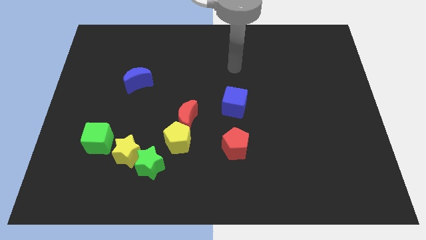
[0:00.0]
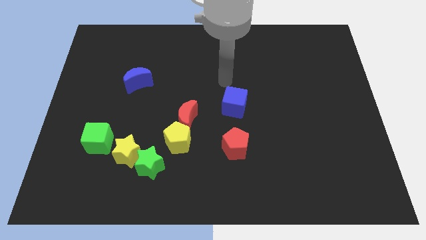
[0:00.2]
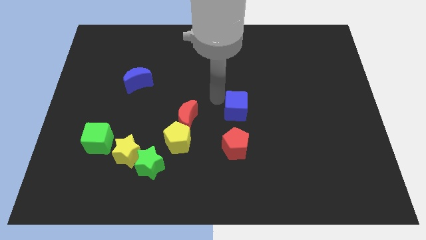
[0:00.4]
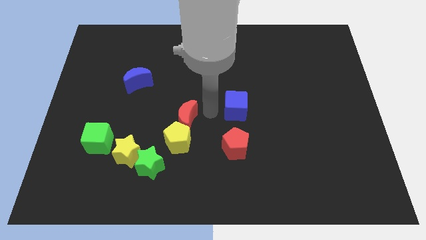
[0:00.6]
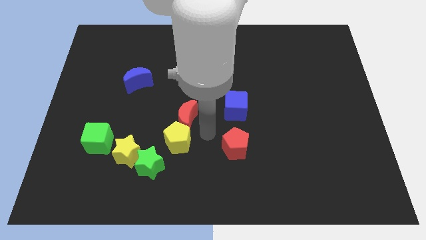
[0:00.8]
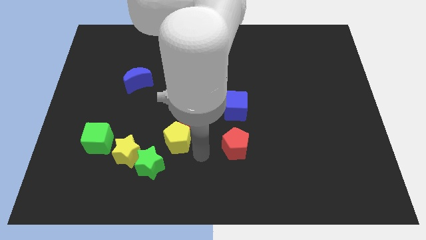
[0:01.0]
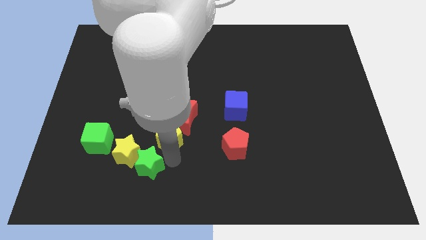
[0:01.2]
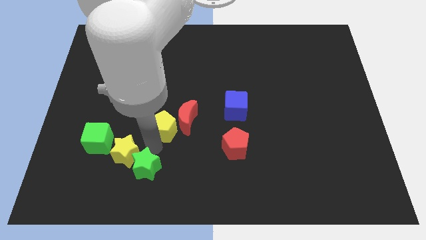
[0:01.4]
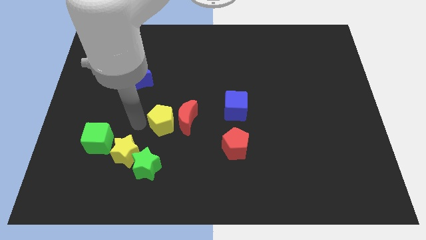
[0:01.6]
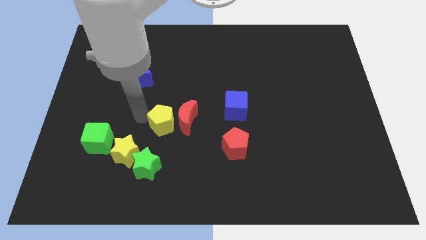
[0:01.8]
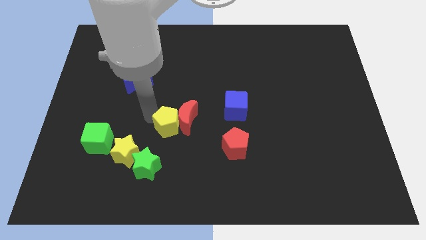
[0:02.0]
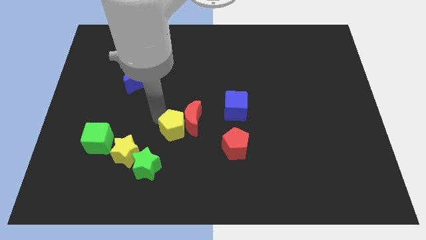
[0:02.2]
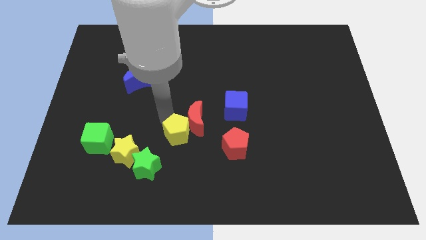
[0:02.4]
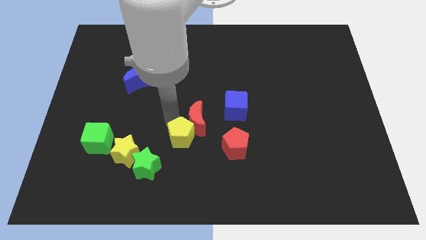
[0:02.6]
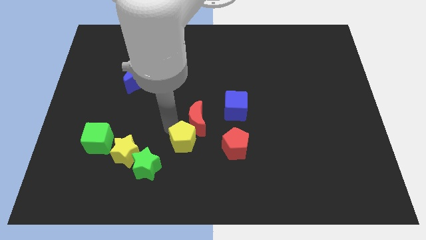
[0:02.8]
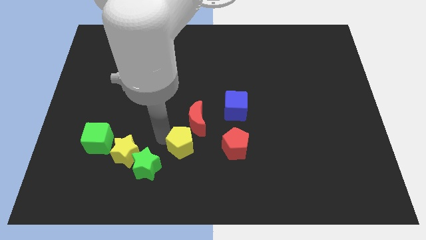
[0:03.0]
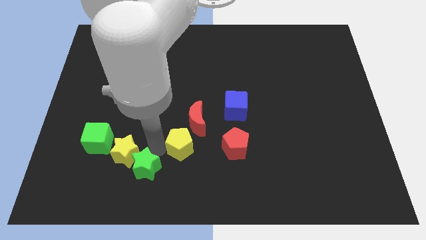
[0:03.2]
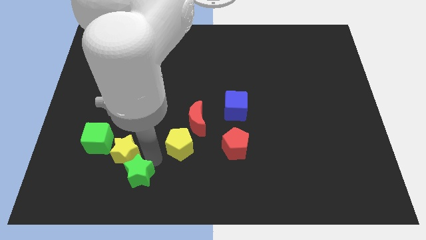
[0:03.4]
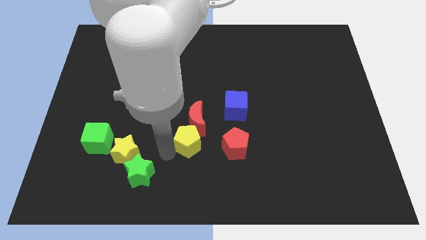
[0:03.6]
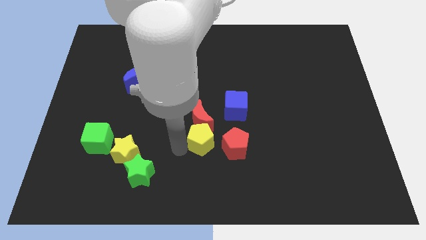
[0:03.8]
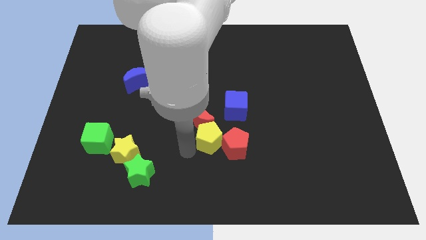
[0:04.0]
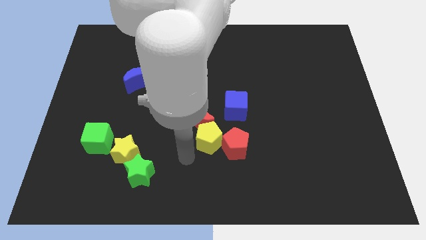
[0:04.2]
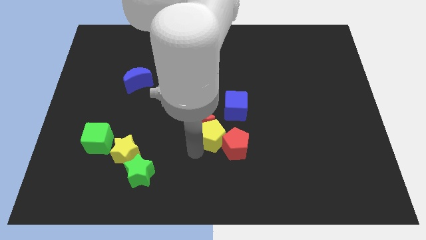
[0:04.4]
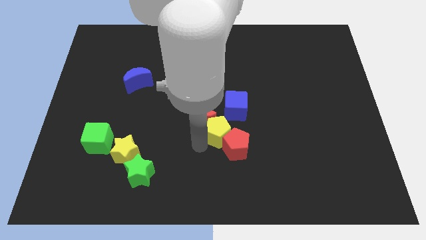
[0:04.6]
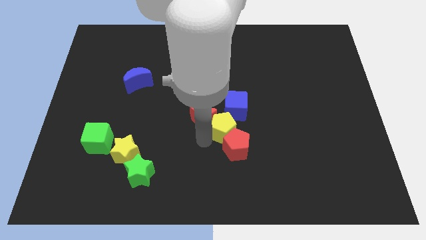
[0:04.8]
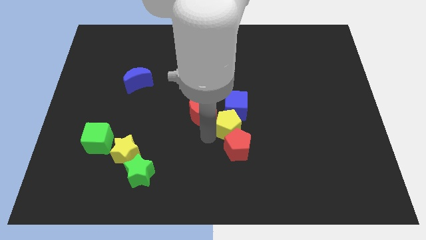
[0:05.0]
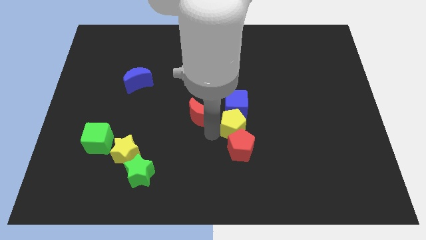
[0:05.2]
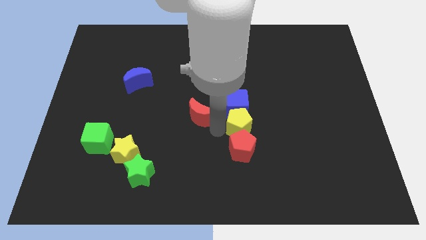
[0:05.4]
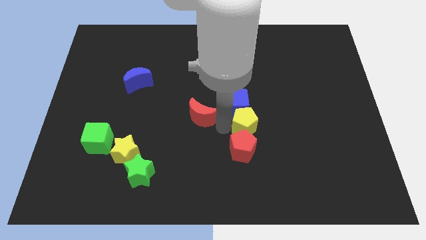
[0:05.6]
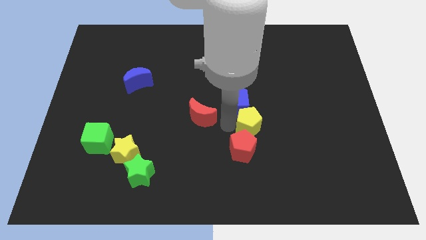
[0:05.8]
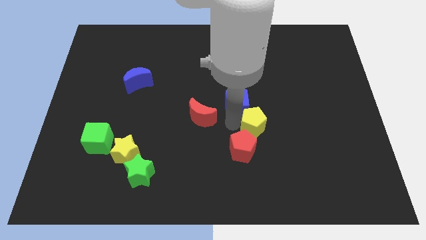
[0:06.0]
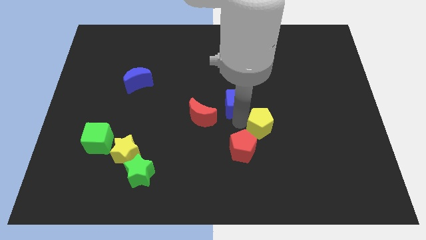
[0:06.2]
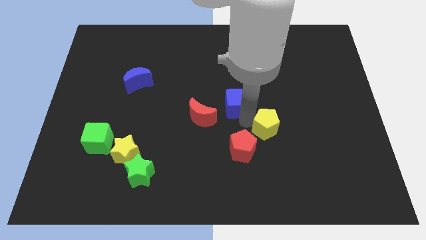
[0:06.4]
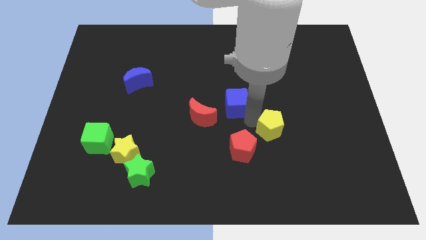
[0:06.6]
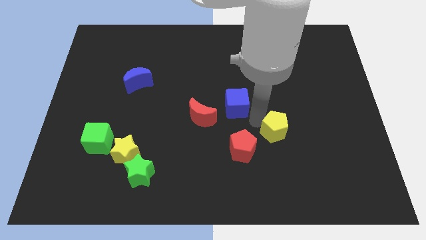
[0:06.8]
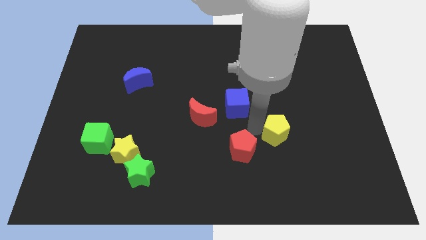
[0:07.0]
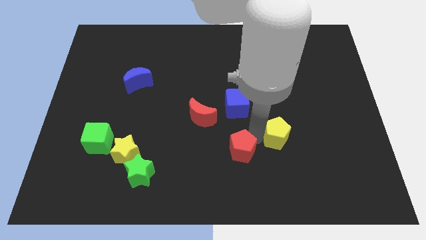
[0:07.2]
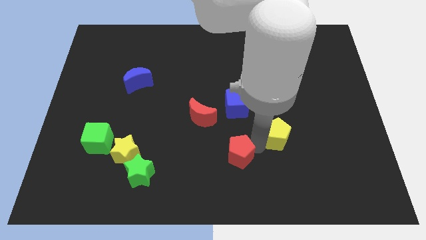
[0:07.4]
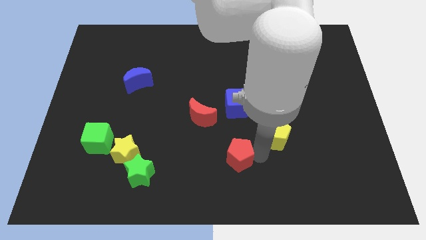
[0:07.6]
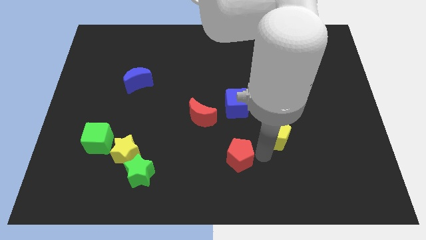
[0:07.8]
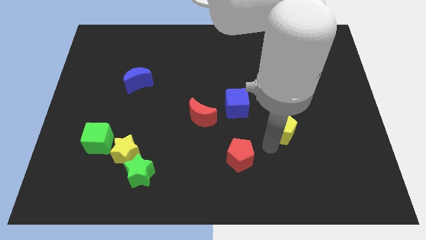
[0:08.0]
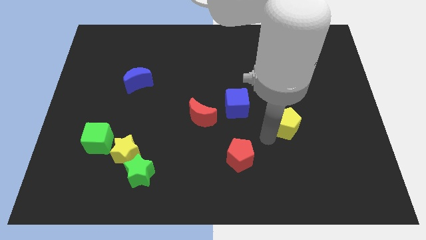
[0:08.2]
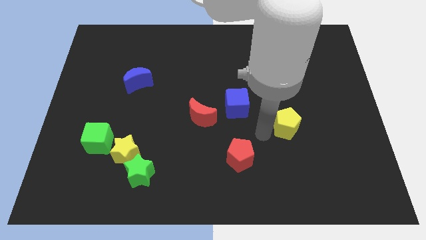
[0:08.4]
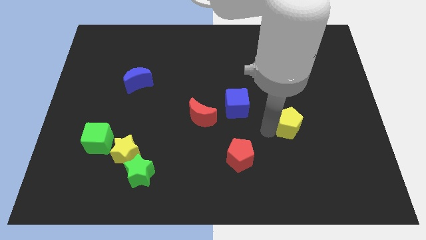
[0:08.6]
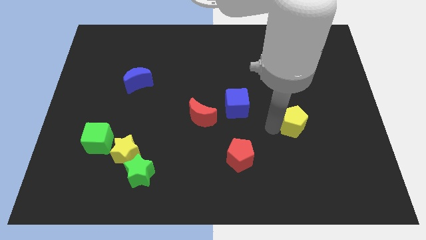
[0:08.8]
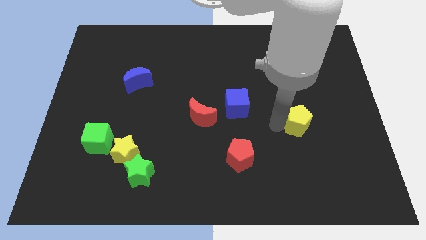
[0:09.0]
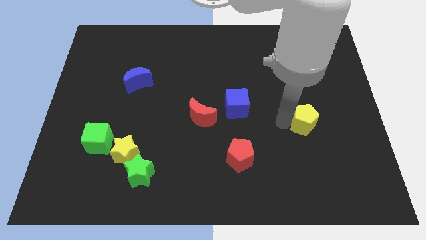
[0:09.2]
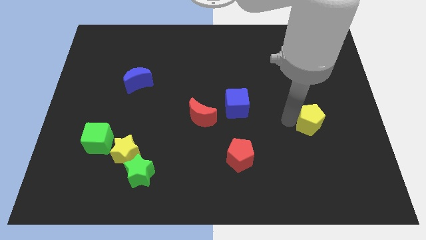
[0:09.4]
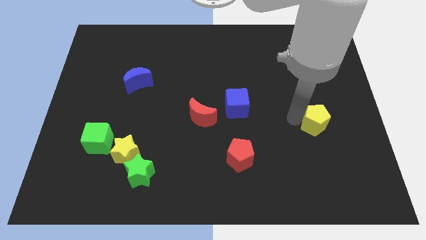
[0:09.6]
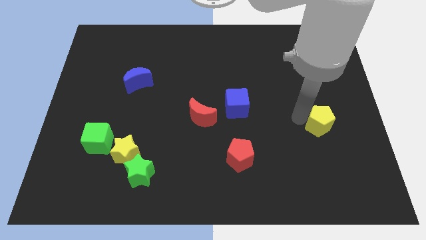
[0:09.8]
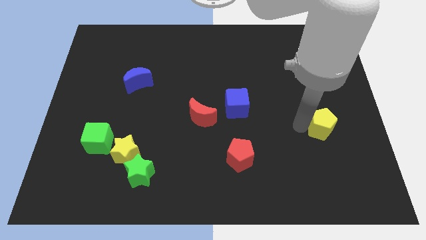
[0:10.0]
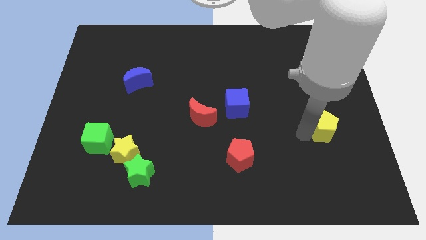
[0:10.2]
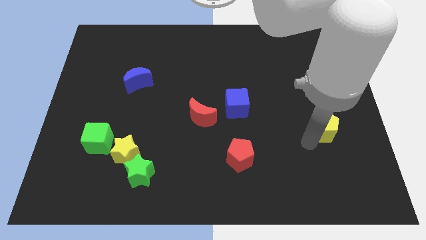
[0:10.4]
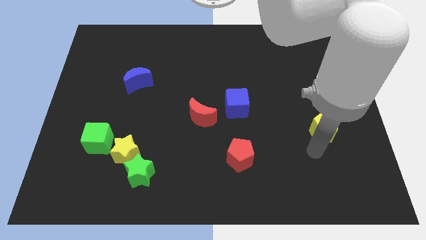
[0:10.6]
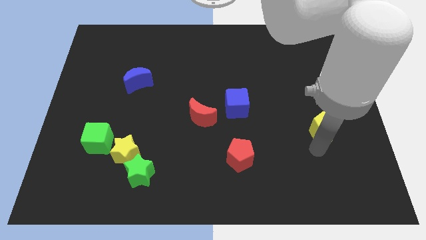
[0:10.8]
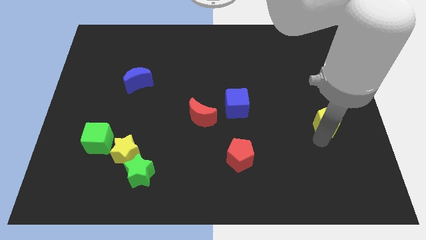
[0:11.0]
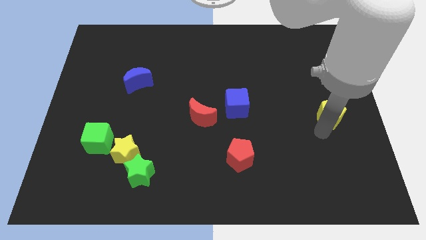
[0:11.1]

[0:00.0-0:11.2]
move the yellow pentagon to the right side of the board

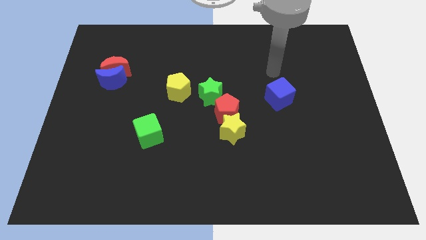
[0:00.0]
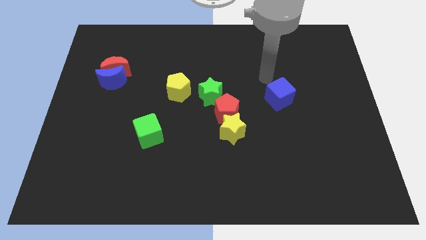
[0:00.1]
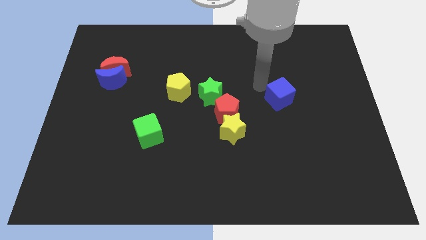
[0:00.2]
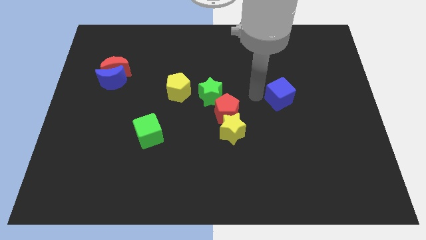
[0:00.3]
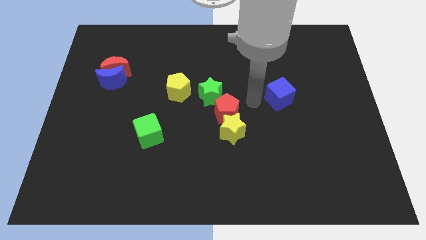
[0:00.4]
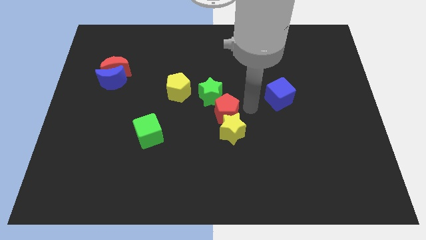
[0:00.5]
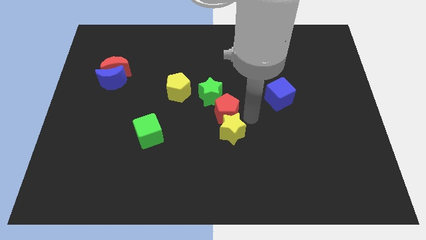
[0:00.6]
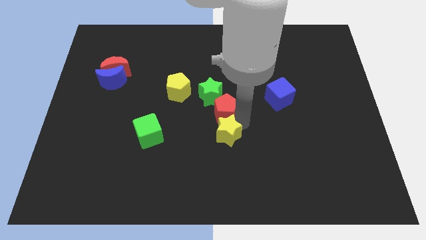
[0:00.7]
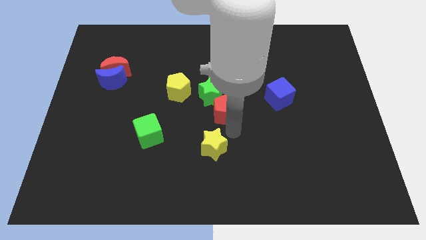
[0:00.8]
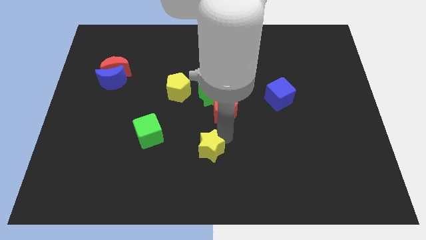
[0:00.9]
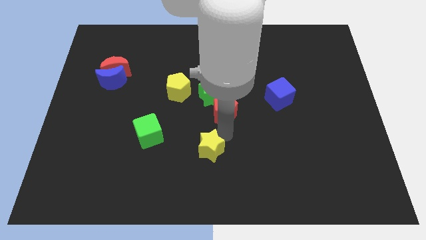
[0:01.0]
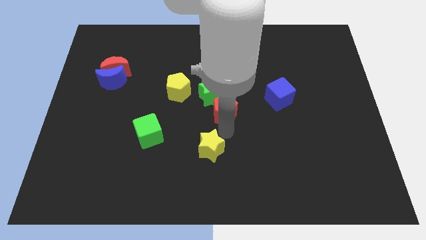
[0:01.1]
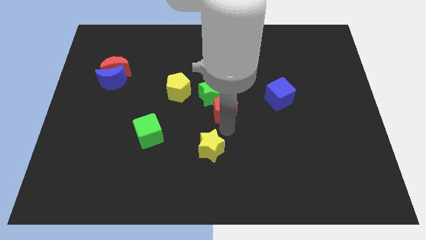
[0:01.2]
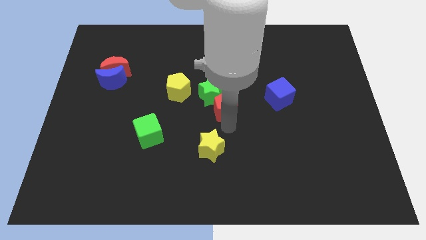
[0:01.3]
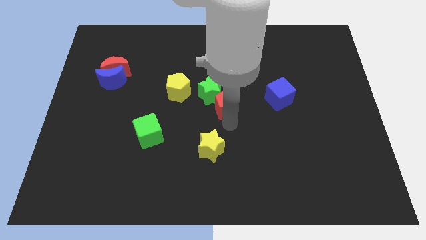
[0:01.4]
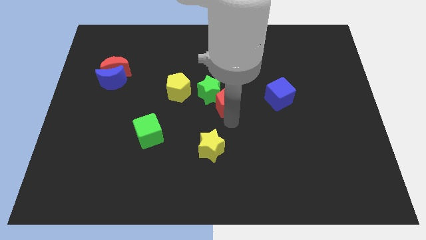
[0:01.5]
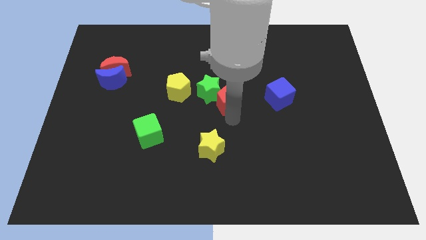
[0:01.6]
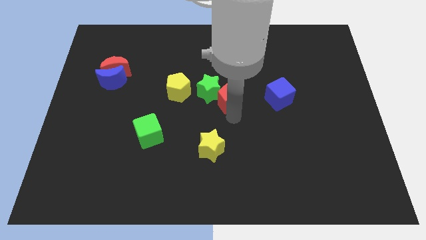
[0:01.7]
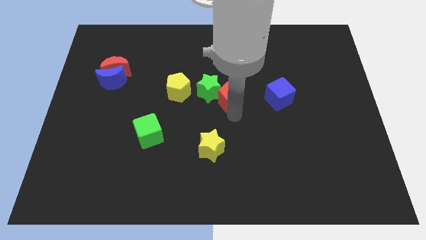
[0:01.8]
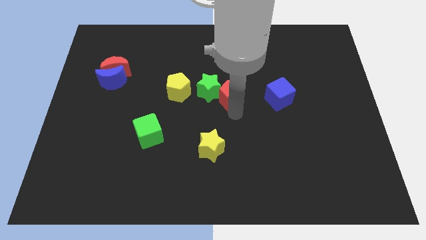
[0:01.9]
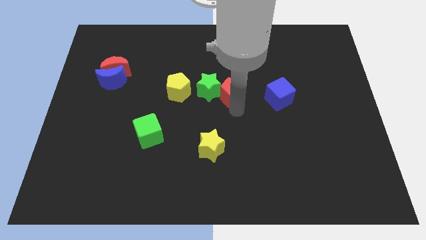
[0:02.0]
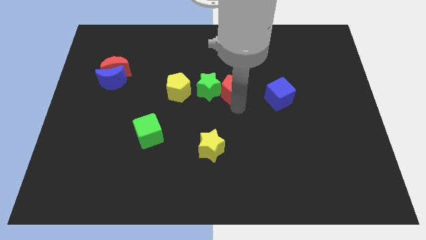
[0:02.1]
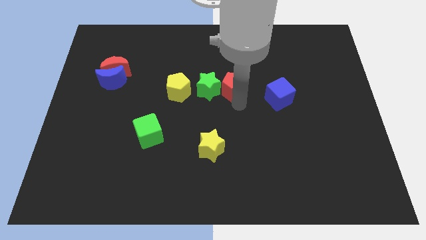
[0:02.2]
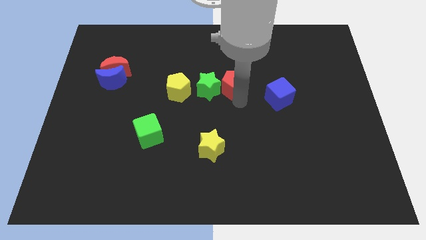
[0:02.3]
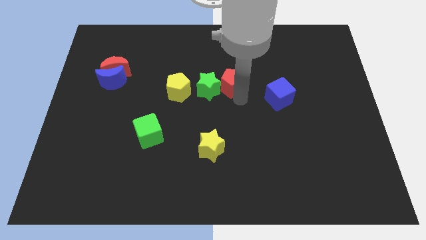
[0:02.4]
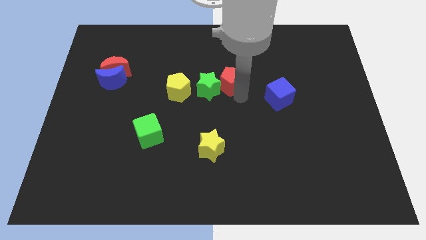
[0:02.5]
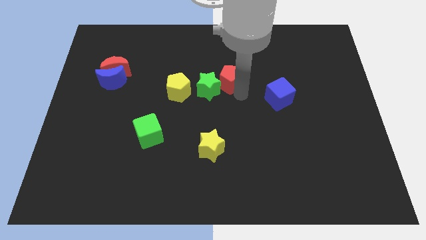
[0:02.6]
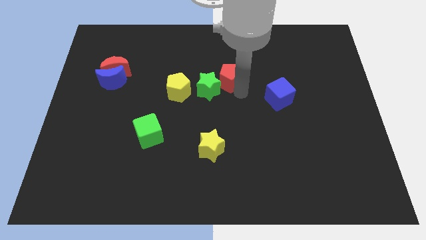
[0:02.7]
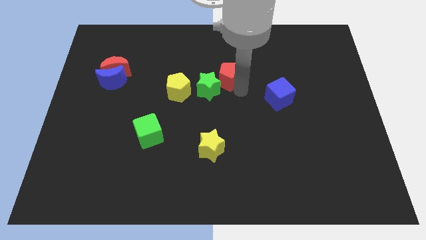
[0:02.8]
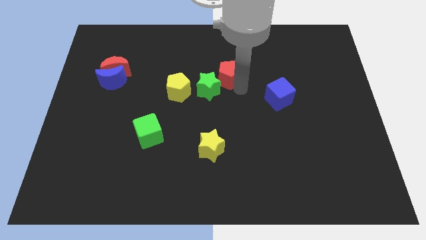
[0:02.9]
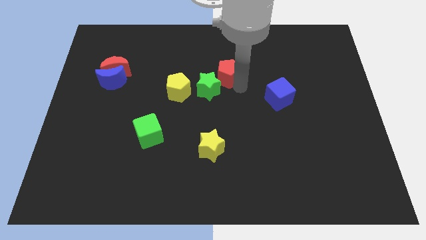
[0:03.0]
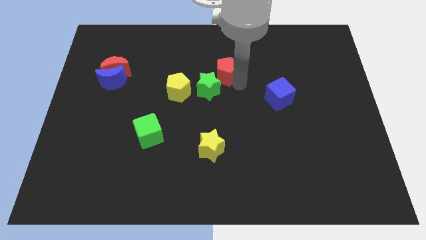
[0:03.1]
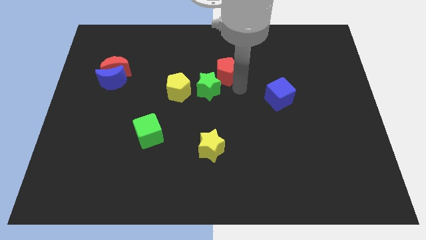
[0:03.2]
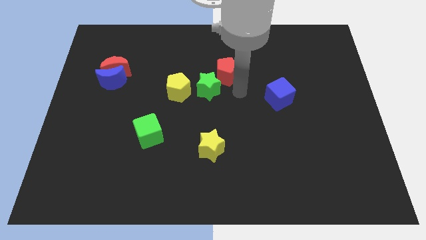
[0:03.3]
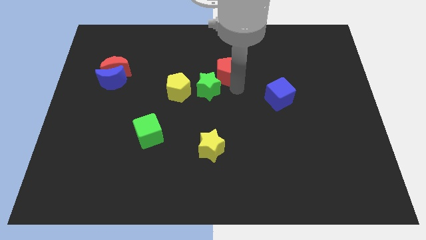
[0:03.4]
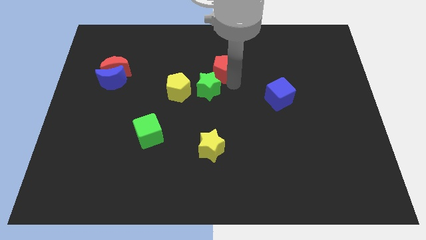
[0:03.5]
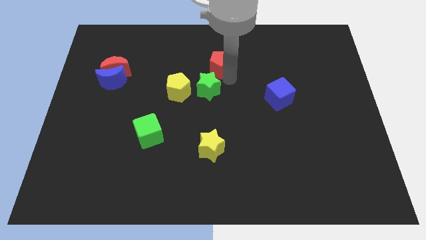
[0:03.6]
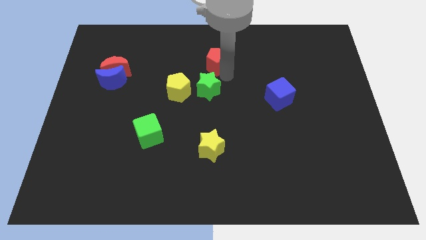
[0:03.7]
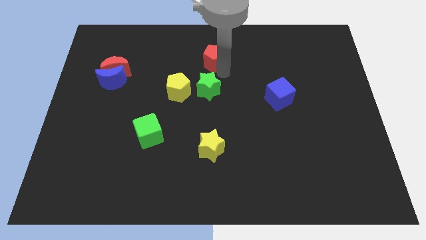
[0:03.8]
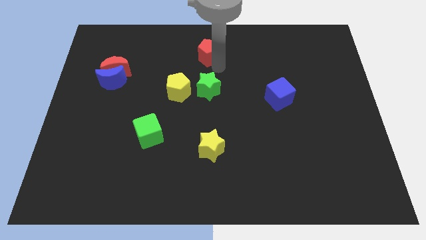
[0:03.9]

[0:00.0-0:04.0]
slide the red pentagon to the towards your base
